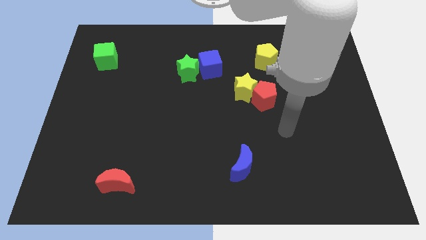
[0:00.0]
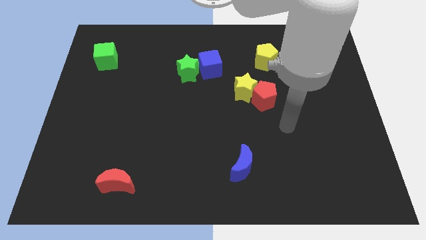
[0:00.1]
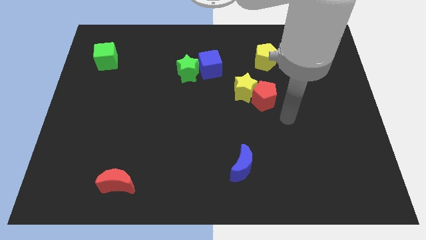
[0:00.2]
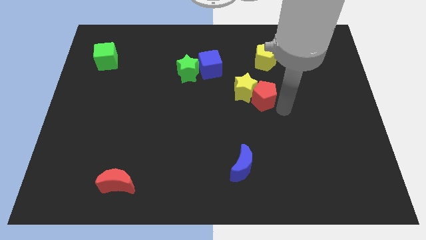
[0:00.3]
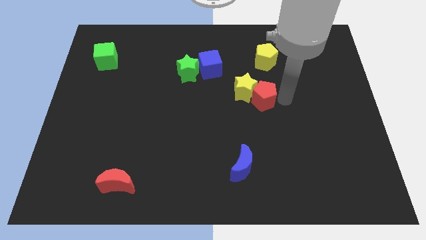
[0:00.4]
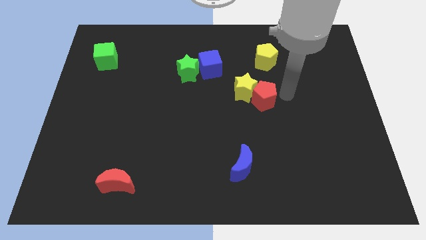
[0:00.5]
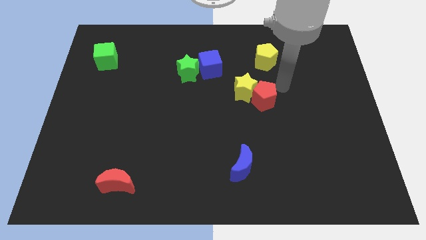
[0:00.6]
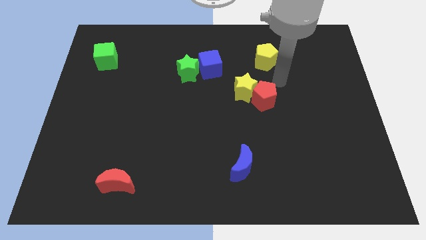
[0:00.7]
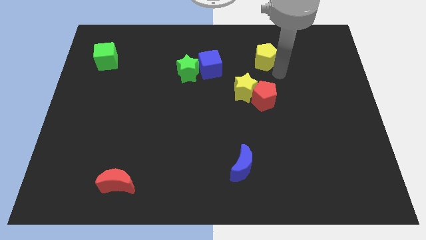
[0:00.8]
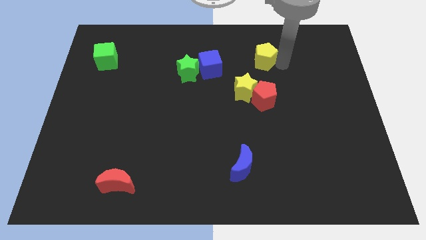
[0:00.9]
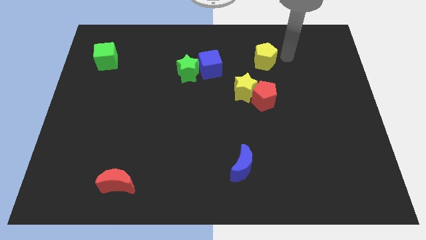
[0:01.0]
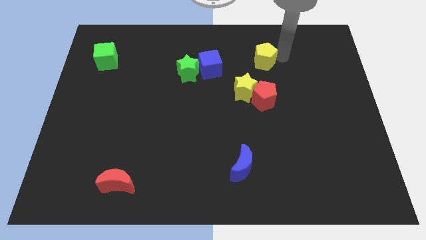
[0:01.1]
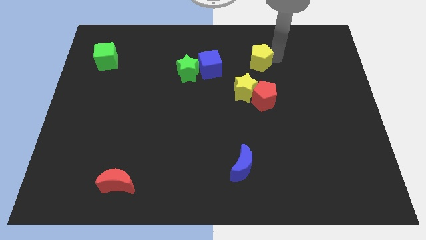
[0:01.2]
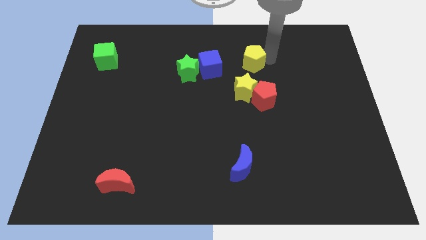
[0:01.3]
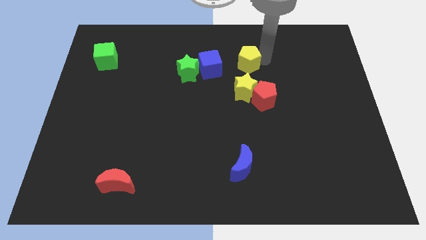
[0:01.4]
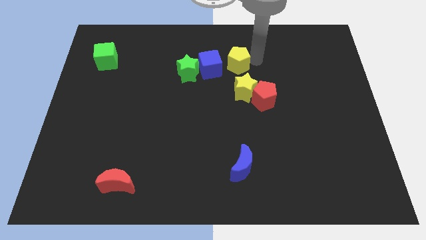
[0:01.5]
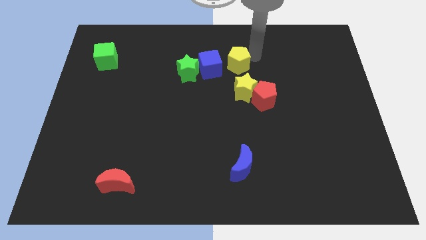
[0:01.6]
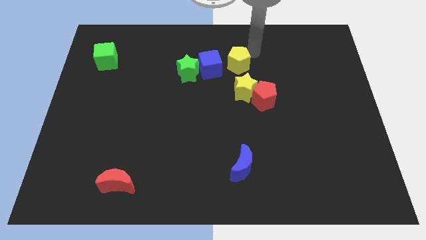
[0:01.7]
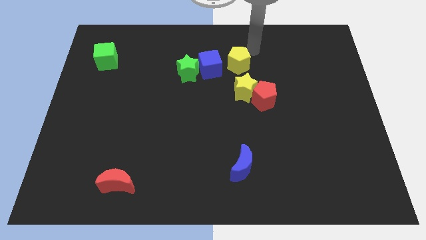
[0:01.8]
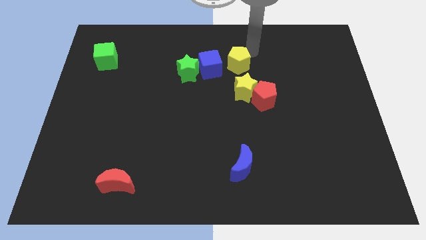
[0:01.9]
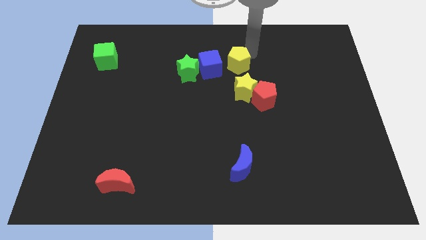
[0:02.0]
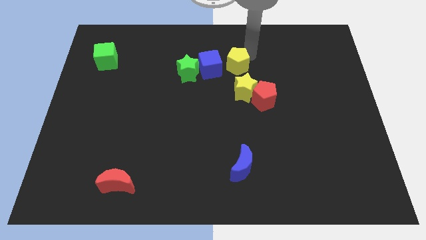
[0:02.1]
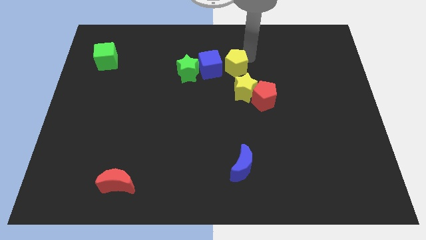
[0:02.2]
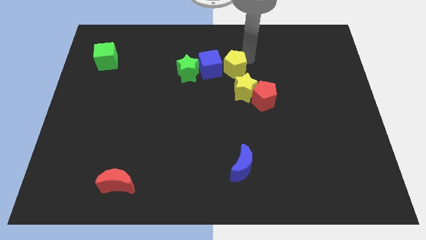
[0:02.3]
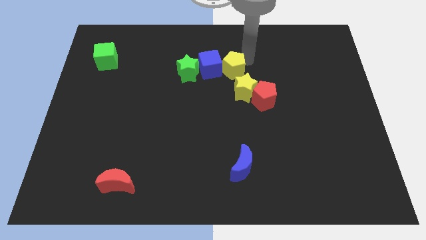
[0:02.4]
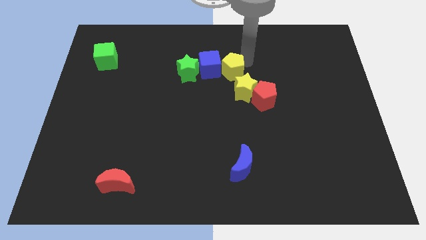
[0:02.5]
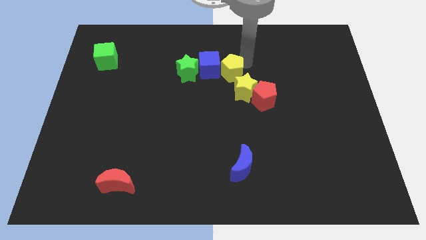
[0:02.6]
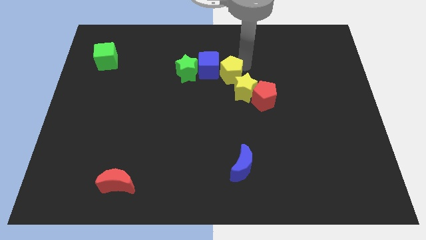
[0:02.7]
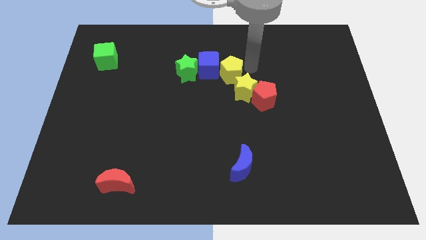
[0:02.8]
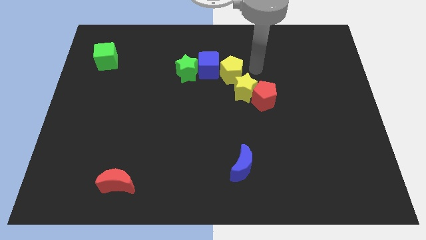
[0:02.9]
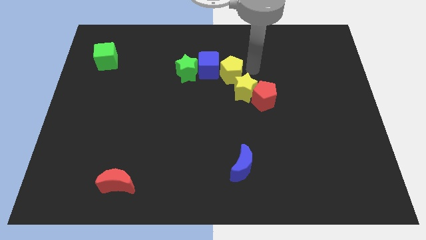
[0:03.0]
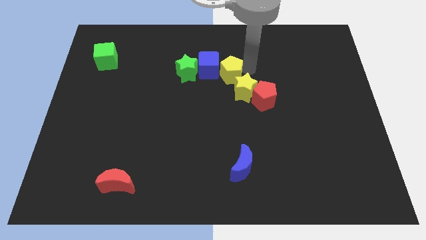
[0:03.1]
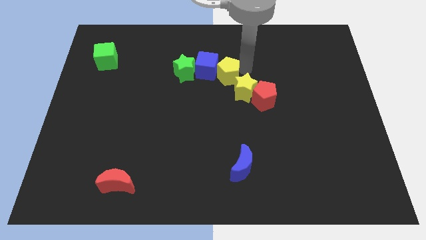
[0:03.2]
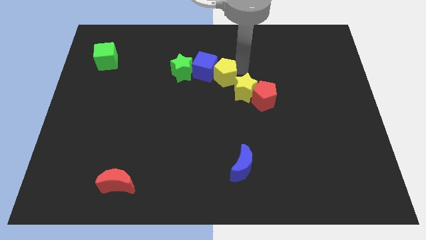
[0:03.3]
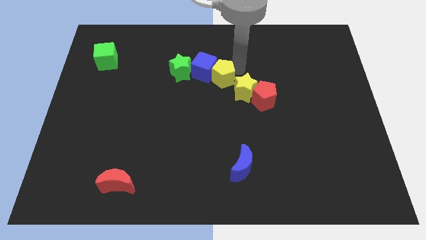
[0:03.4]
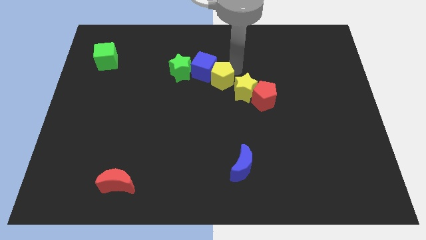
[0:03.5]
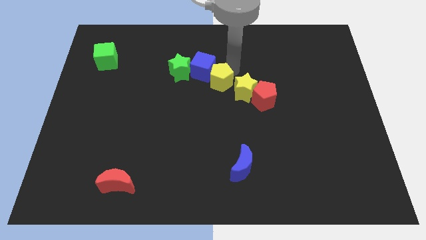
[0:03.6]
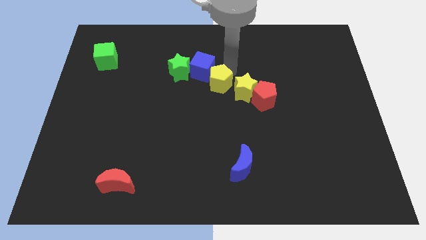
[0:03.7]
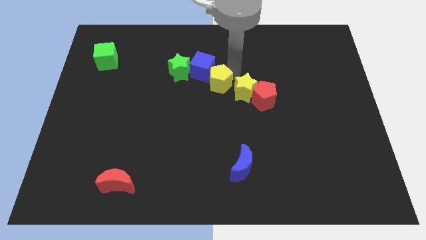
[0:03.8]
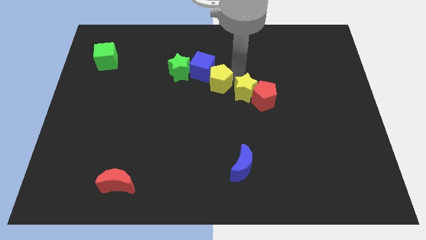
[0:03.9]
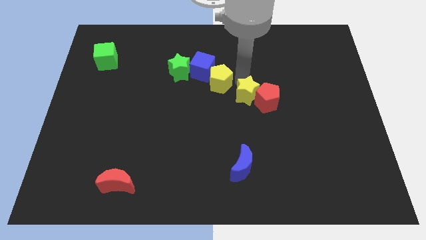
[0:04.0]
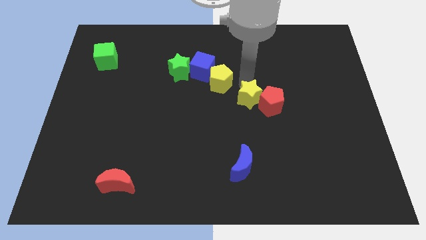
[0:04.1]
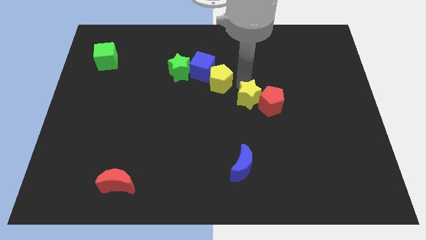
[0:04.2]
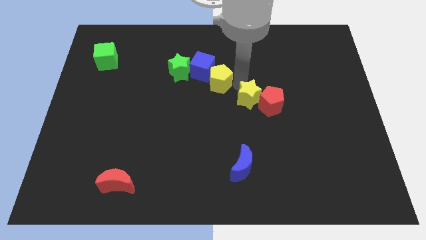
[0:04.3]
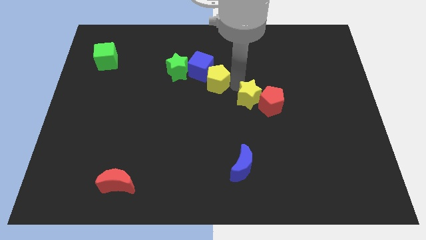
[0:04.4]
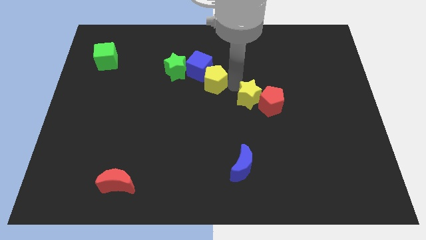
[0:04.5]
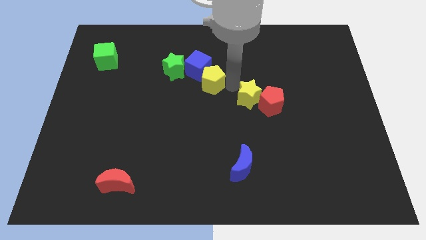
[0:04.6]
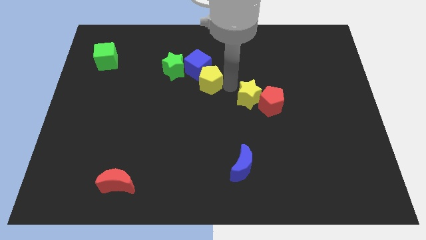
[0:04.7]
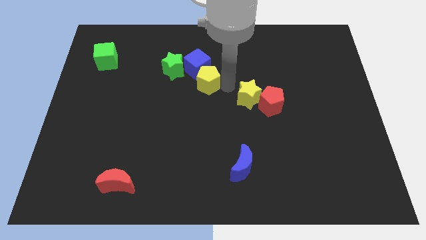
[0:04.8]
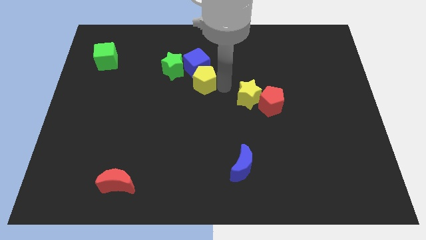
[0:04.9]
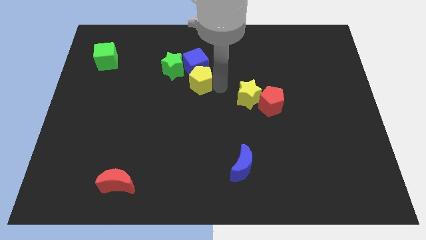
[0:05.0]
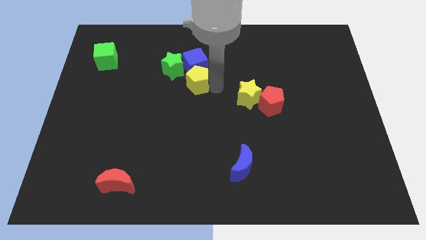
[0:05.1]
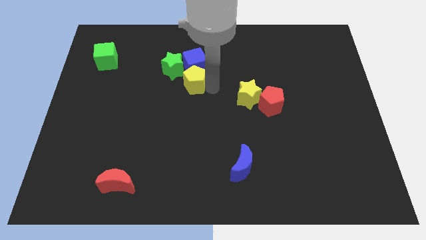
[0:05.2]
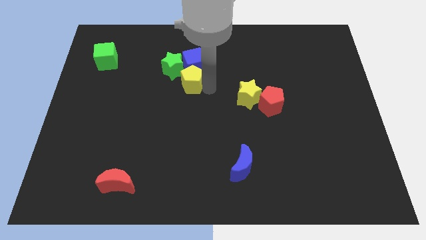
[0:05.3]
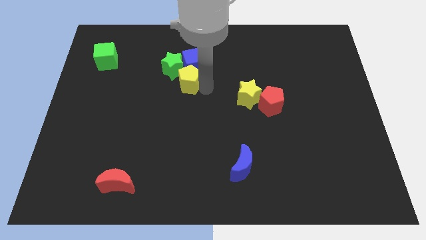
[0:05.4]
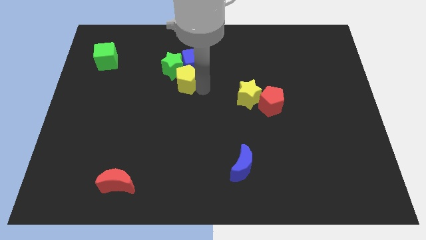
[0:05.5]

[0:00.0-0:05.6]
slide the yellow pentagon towards the green star
